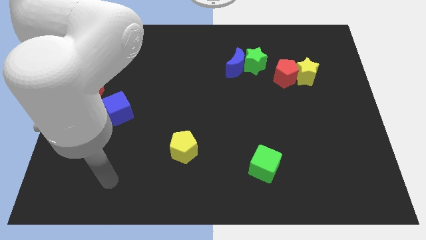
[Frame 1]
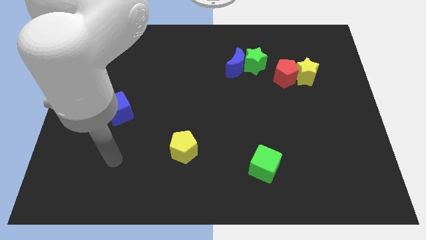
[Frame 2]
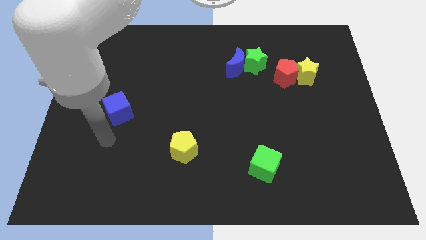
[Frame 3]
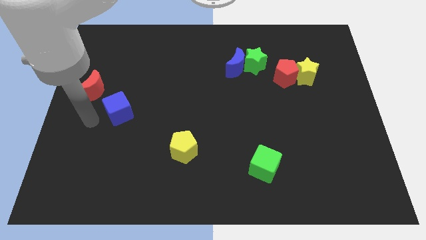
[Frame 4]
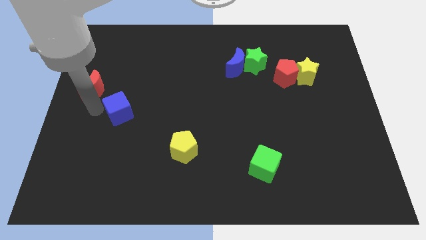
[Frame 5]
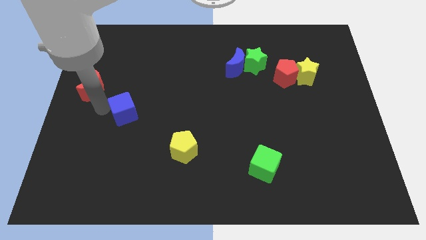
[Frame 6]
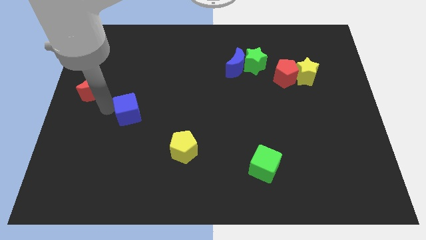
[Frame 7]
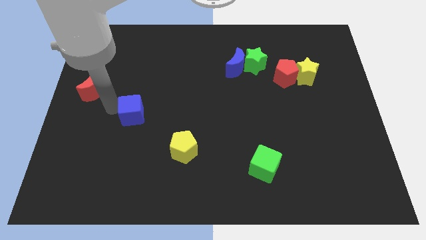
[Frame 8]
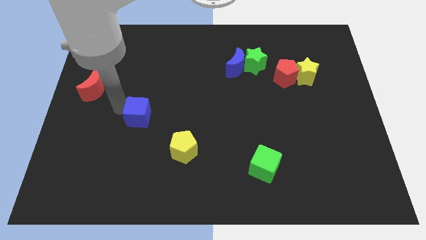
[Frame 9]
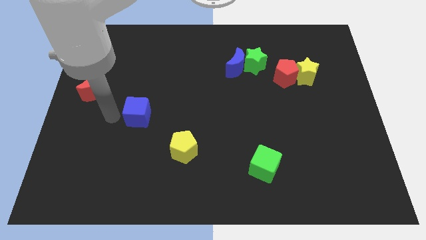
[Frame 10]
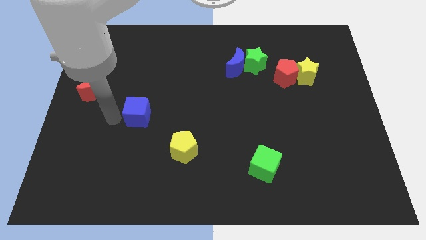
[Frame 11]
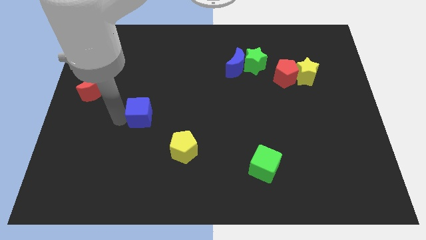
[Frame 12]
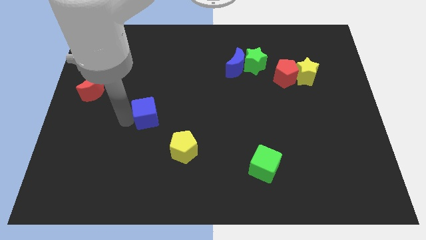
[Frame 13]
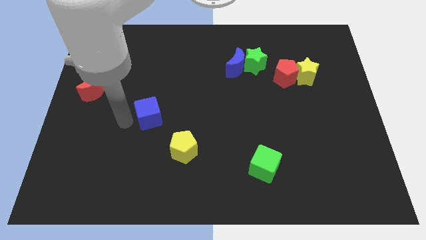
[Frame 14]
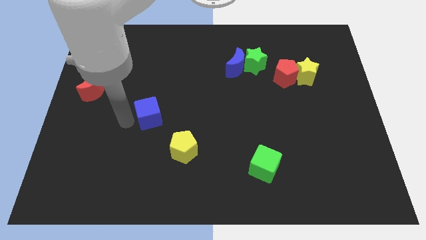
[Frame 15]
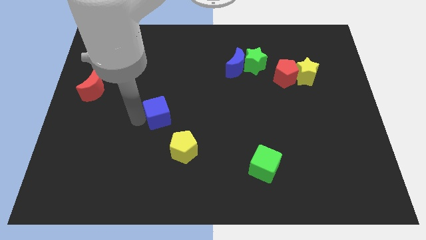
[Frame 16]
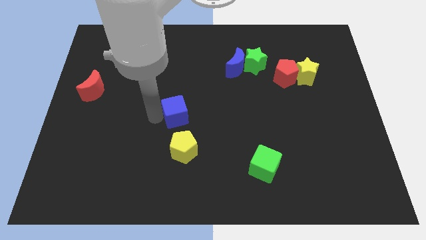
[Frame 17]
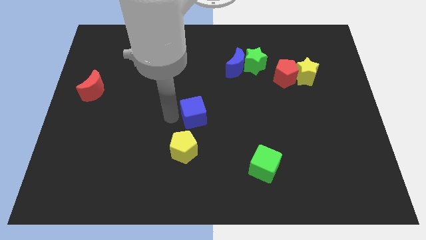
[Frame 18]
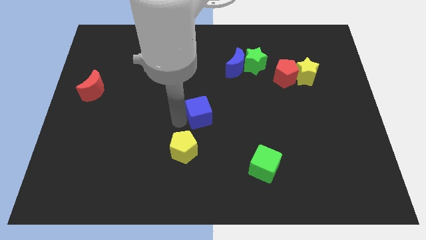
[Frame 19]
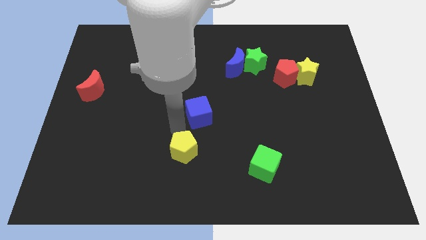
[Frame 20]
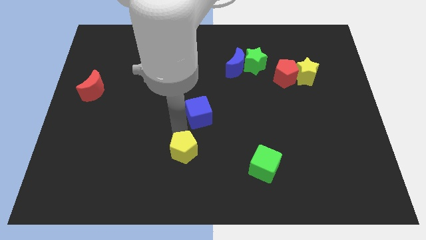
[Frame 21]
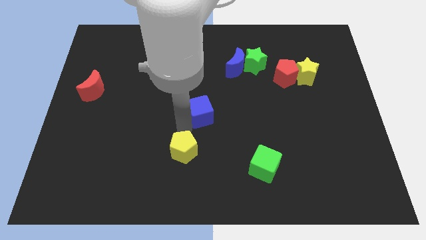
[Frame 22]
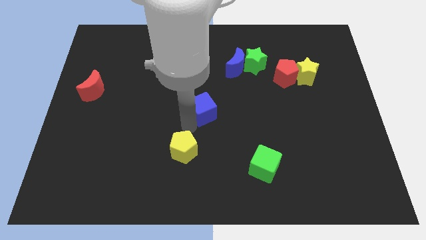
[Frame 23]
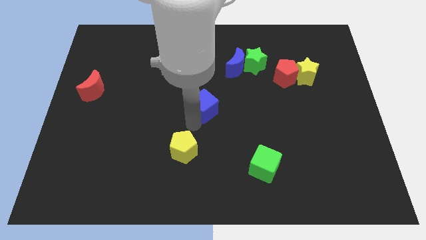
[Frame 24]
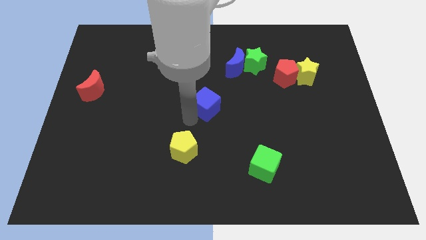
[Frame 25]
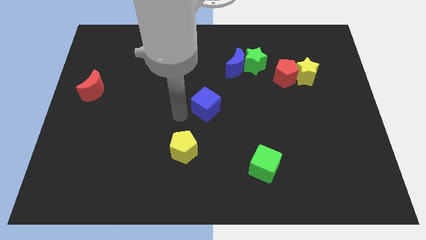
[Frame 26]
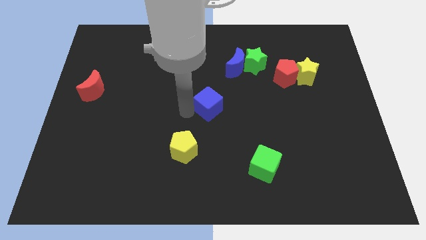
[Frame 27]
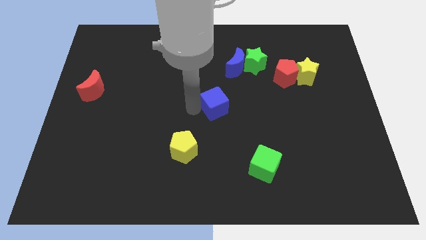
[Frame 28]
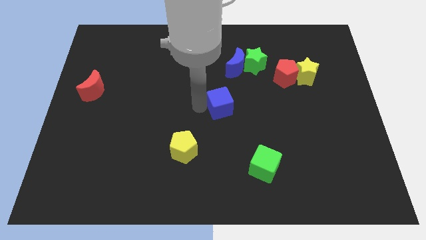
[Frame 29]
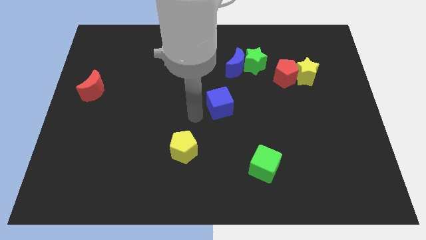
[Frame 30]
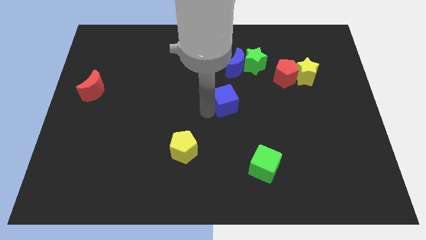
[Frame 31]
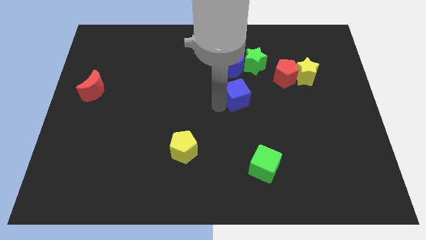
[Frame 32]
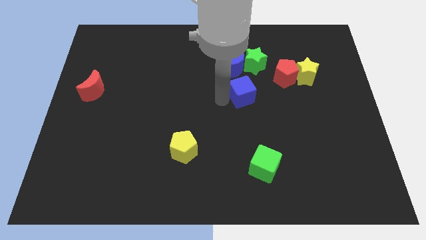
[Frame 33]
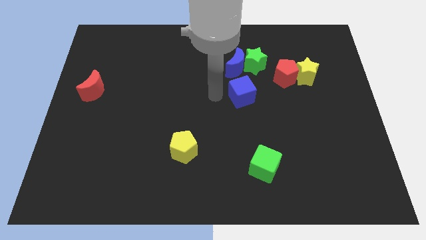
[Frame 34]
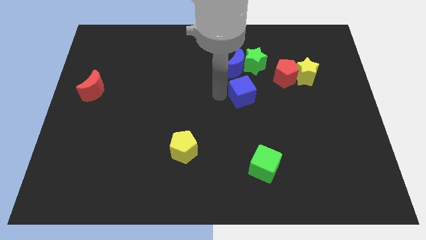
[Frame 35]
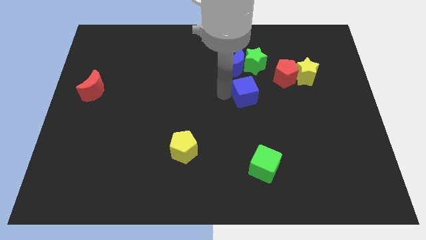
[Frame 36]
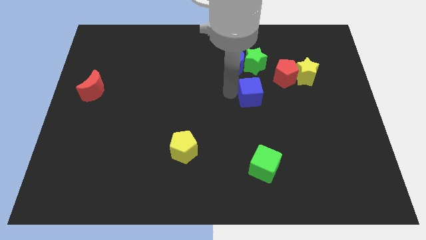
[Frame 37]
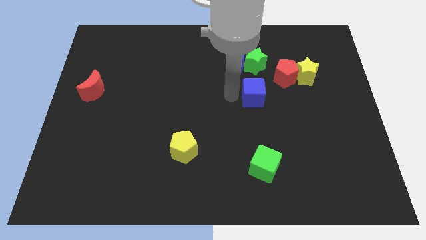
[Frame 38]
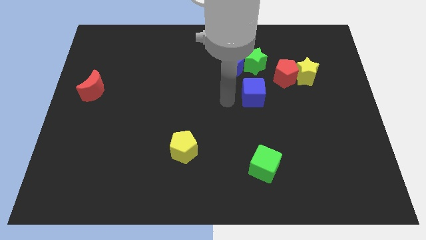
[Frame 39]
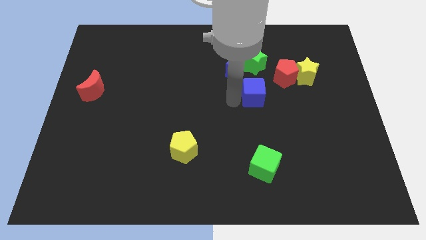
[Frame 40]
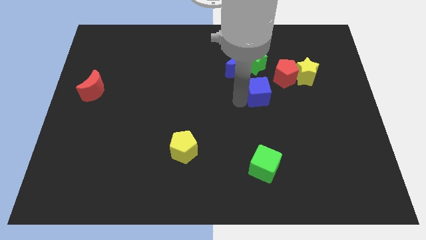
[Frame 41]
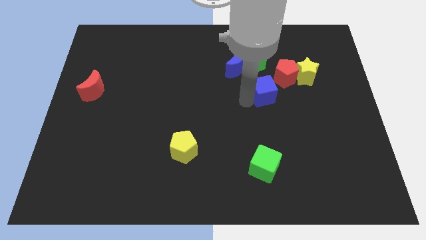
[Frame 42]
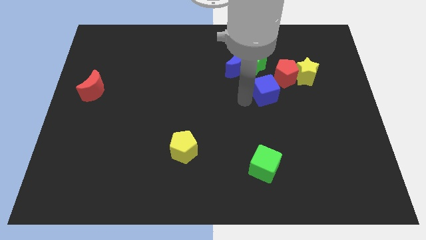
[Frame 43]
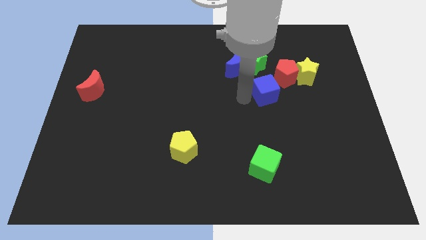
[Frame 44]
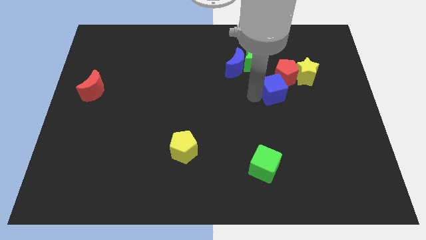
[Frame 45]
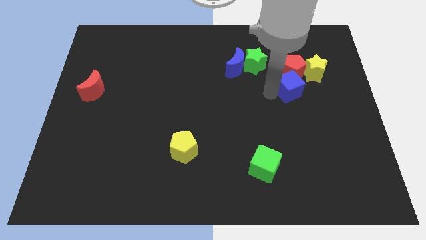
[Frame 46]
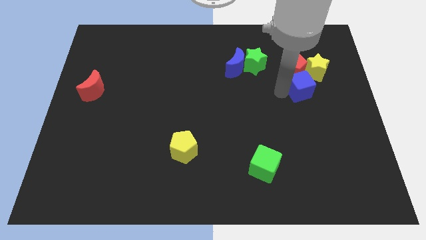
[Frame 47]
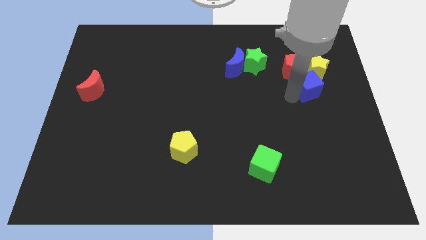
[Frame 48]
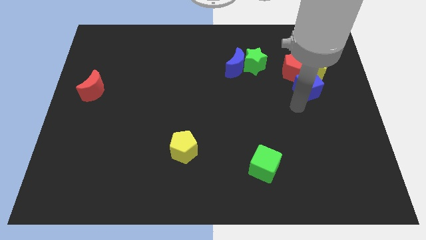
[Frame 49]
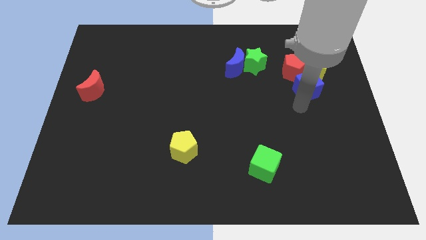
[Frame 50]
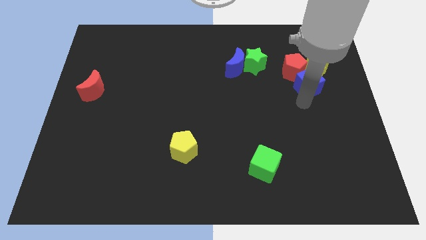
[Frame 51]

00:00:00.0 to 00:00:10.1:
slide the blue cube close to the yellow star

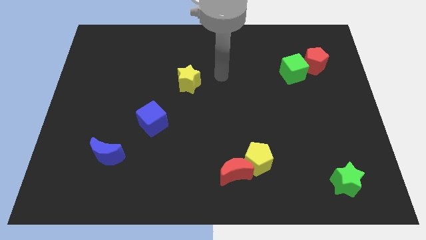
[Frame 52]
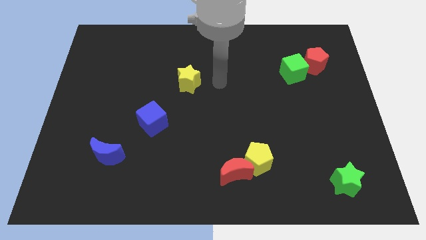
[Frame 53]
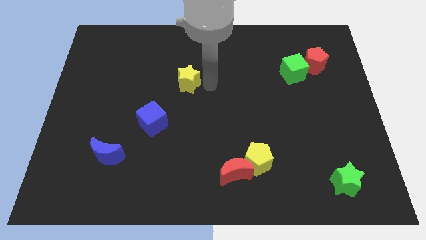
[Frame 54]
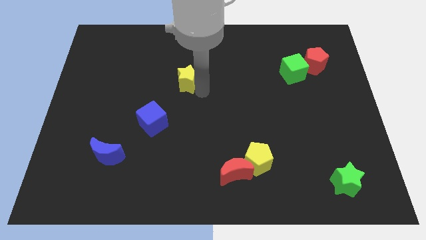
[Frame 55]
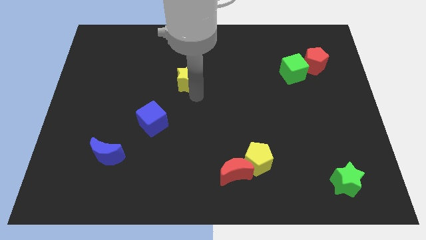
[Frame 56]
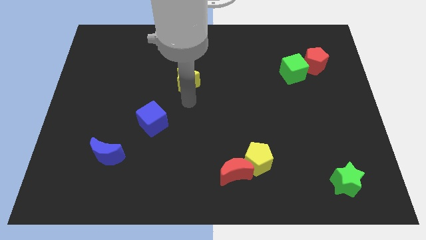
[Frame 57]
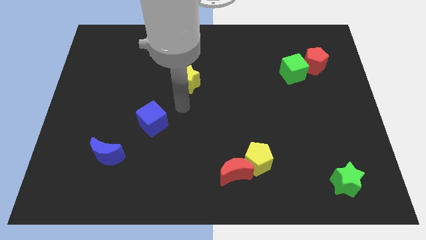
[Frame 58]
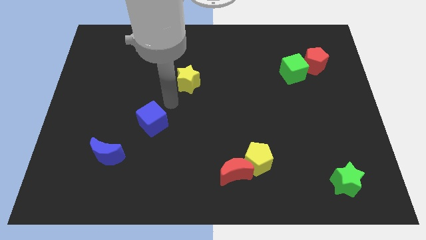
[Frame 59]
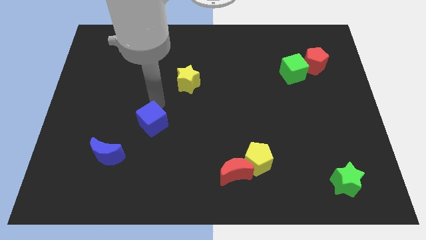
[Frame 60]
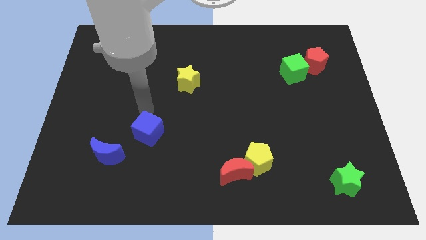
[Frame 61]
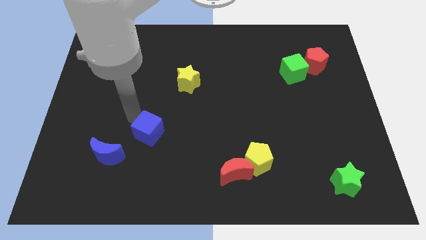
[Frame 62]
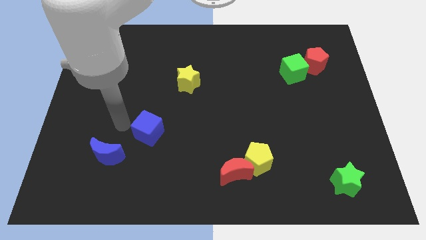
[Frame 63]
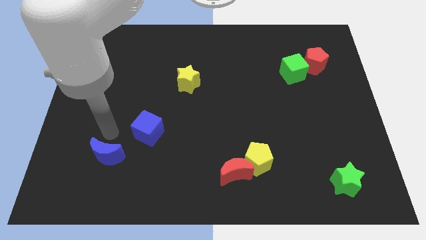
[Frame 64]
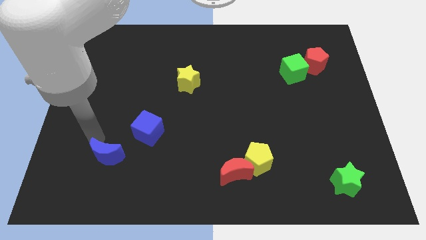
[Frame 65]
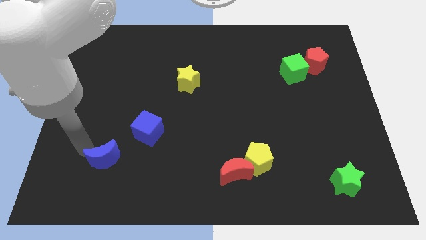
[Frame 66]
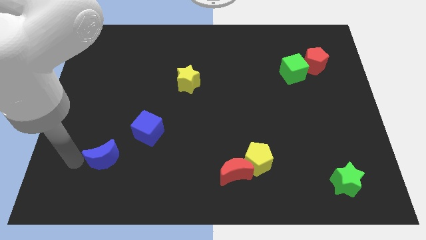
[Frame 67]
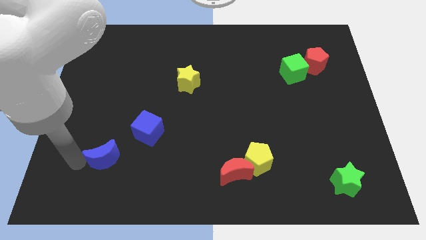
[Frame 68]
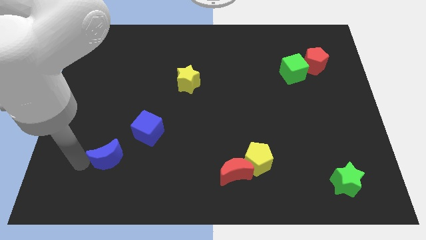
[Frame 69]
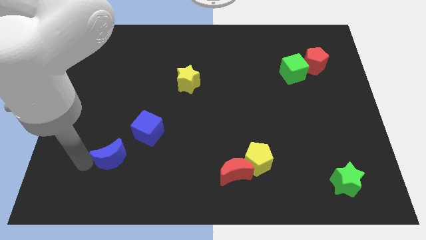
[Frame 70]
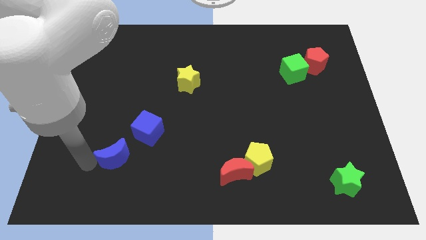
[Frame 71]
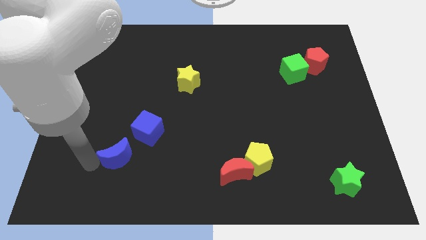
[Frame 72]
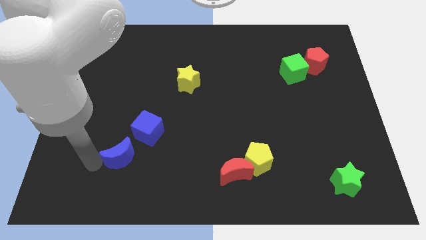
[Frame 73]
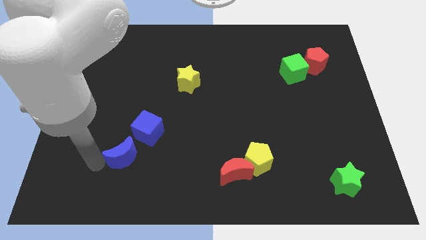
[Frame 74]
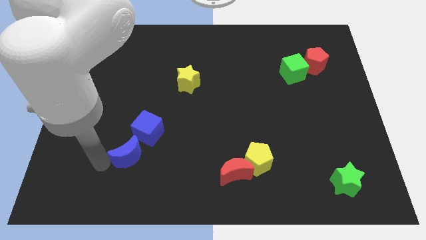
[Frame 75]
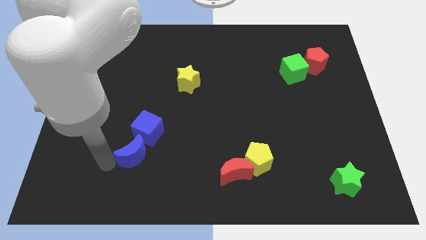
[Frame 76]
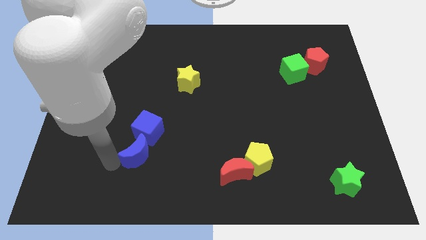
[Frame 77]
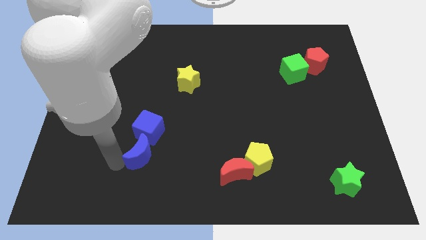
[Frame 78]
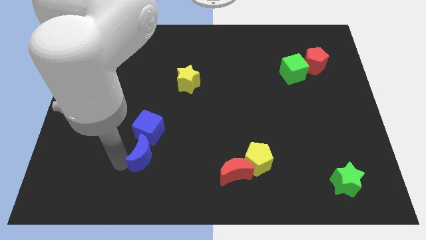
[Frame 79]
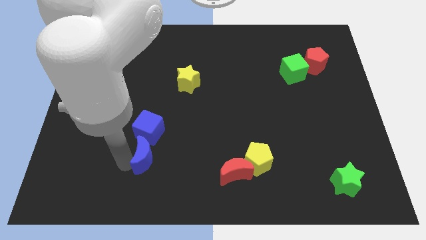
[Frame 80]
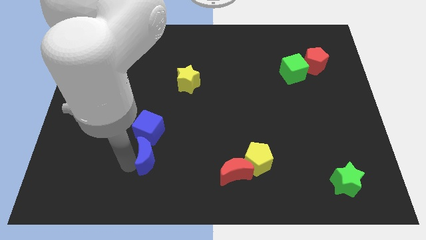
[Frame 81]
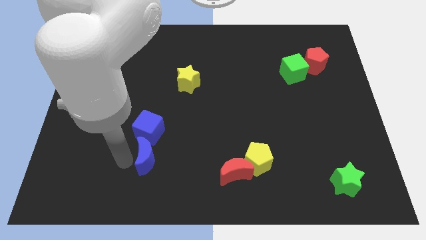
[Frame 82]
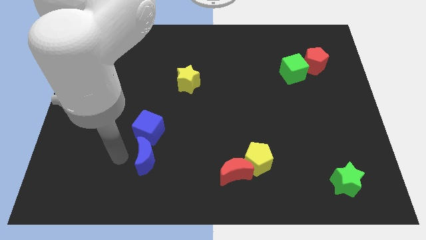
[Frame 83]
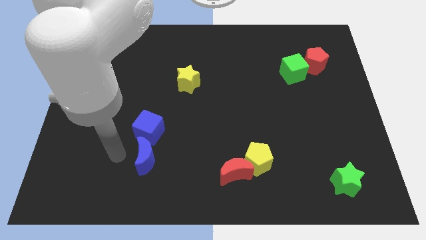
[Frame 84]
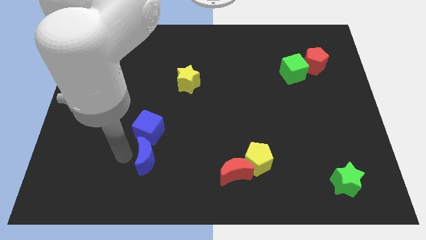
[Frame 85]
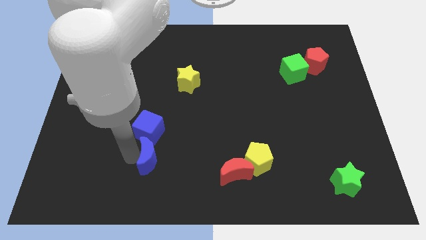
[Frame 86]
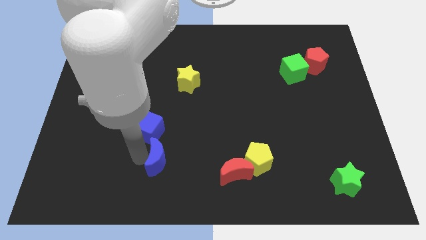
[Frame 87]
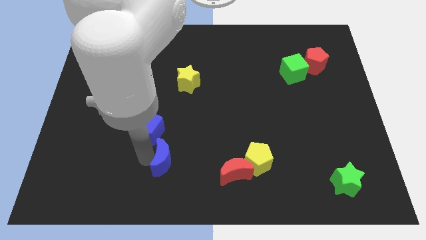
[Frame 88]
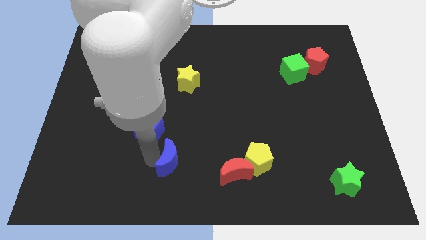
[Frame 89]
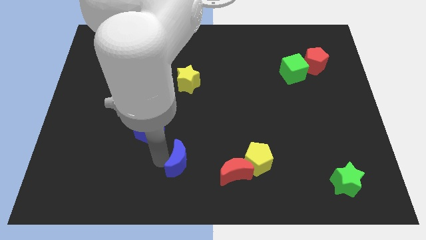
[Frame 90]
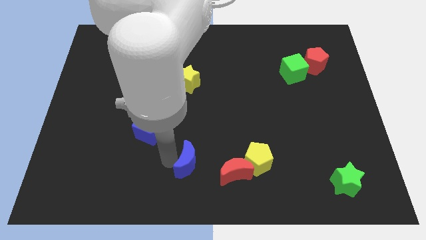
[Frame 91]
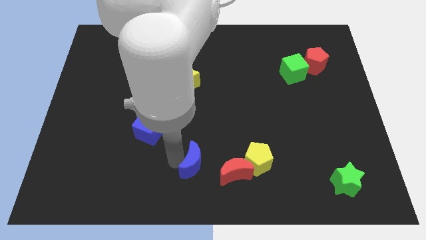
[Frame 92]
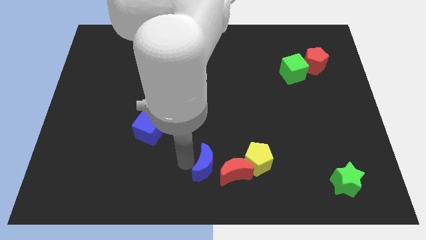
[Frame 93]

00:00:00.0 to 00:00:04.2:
put the blue moon to the red moon
